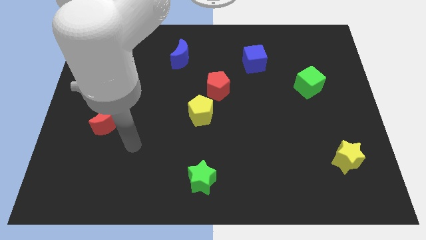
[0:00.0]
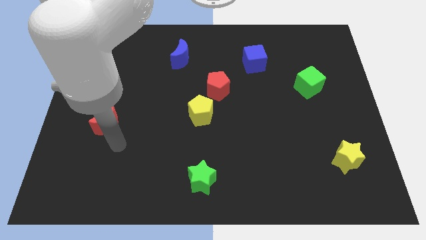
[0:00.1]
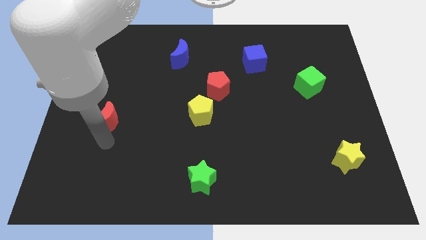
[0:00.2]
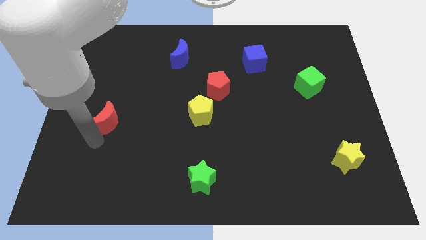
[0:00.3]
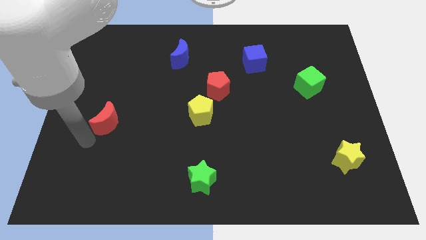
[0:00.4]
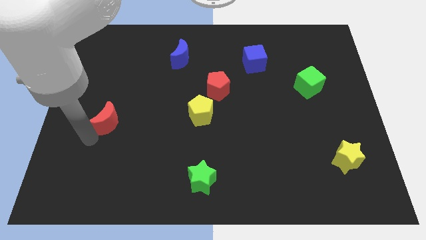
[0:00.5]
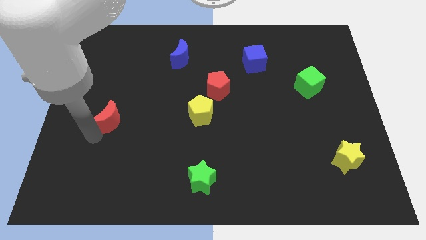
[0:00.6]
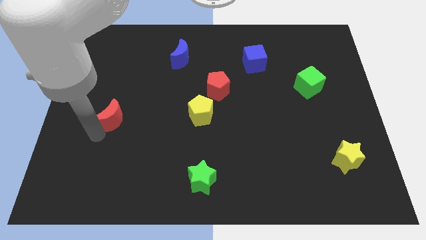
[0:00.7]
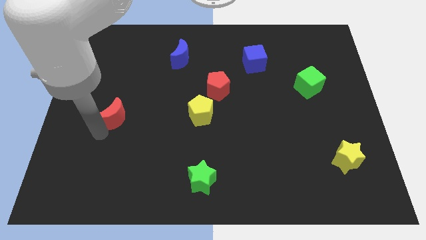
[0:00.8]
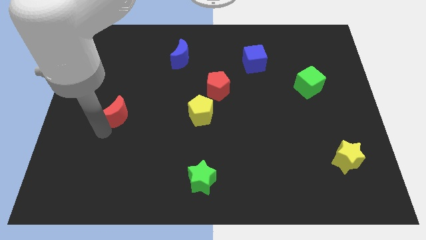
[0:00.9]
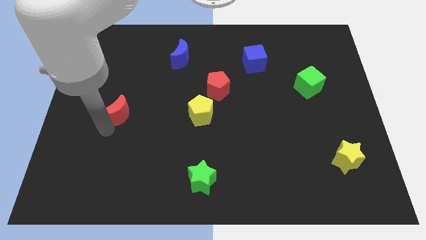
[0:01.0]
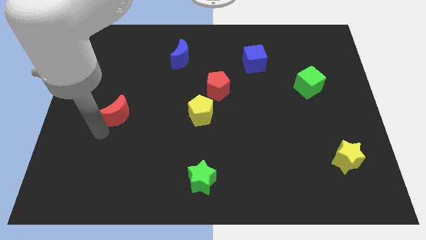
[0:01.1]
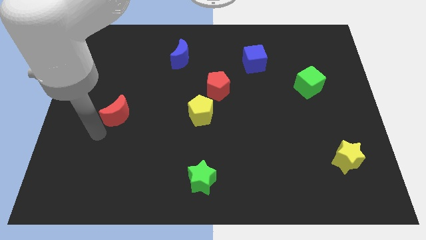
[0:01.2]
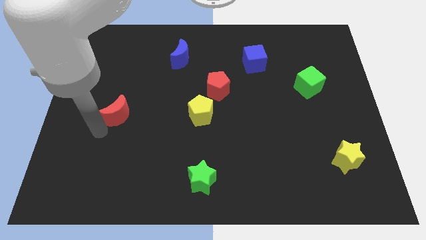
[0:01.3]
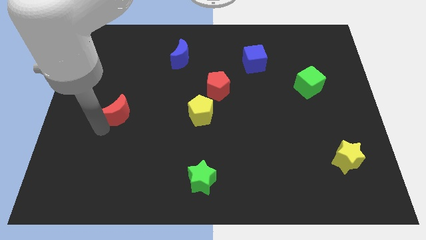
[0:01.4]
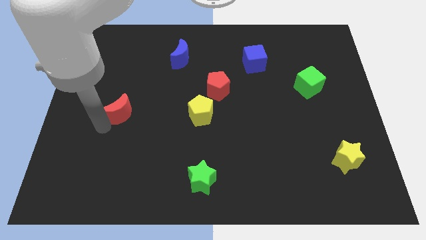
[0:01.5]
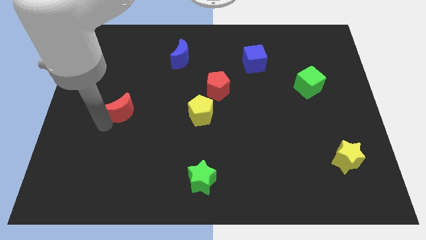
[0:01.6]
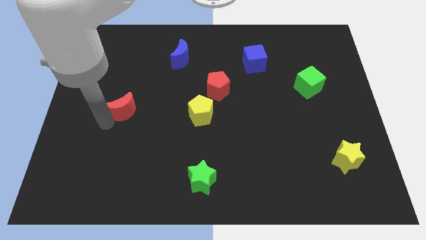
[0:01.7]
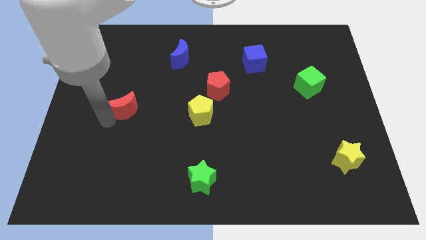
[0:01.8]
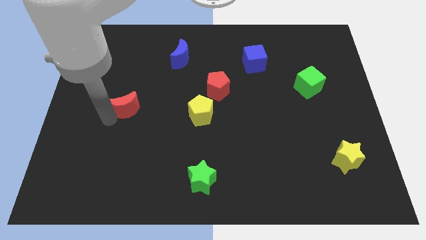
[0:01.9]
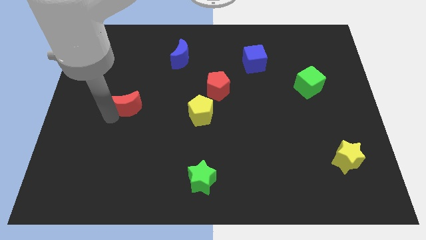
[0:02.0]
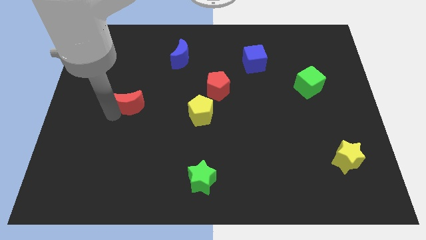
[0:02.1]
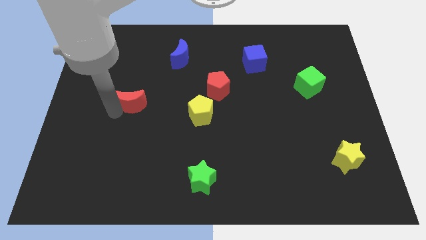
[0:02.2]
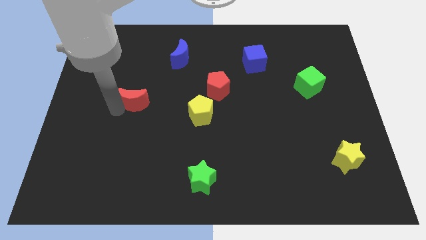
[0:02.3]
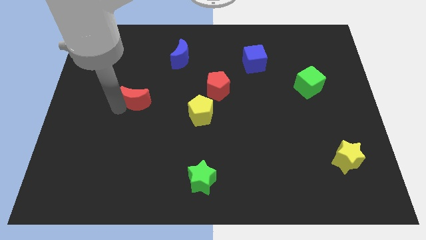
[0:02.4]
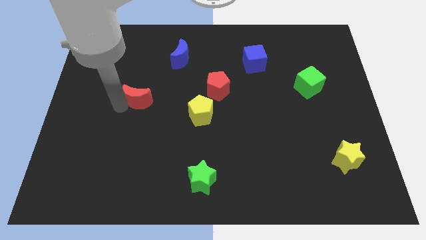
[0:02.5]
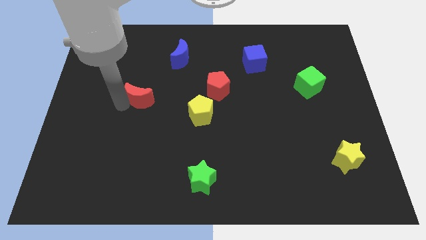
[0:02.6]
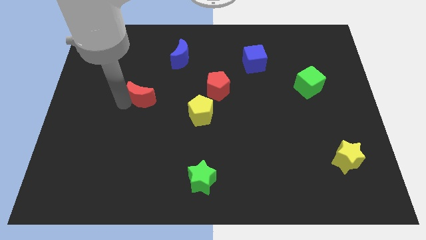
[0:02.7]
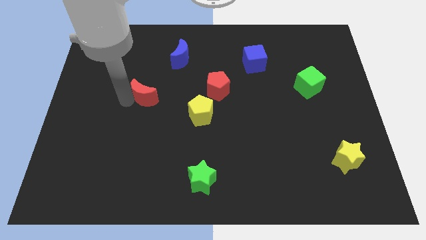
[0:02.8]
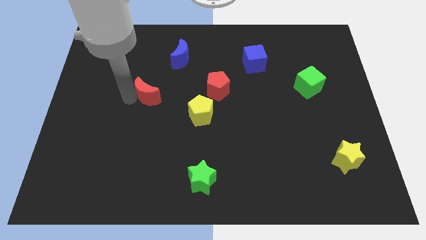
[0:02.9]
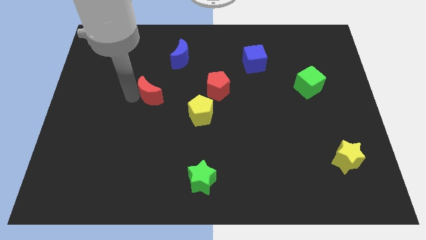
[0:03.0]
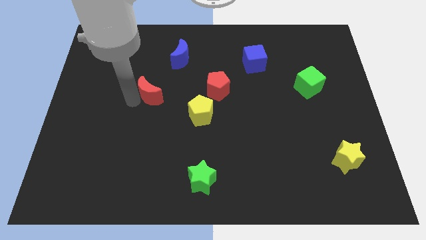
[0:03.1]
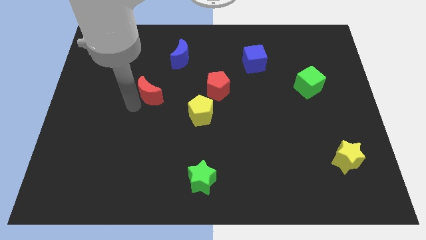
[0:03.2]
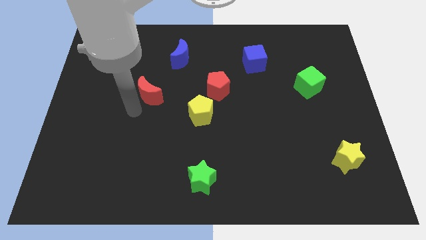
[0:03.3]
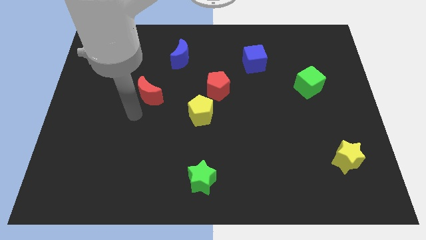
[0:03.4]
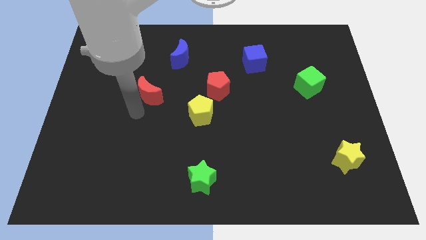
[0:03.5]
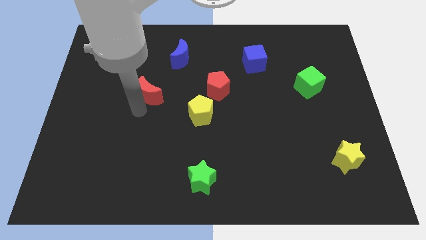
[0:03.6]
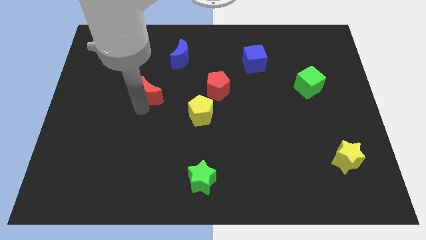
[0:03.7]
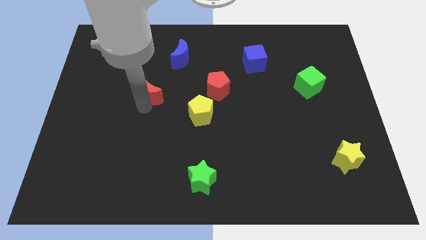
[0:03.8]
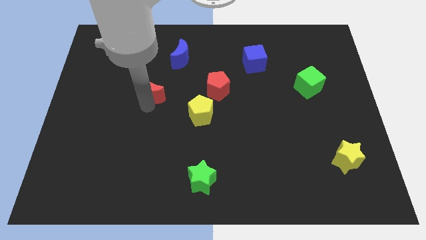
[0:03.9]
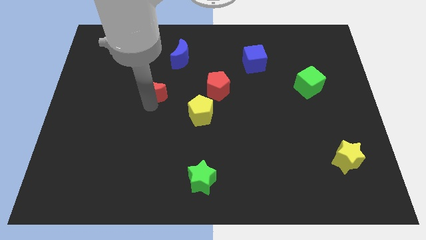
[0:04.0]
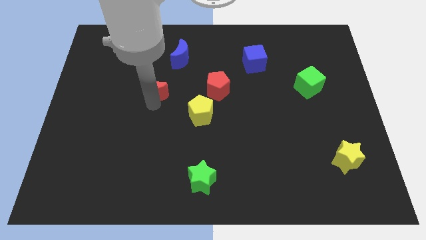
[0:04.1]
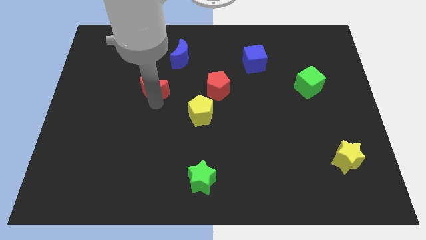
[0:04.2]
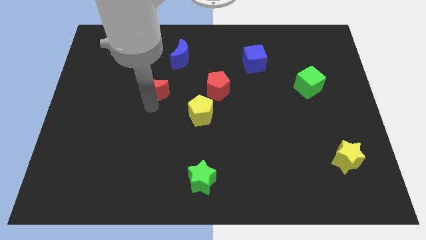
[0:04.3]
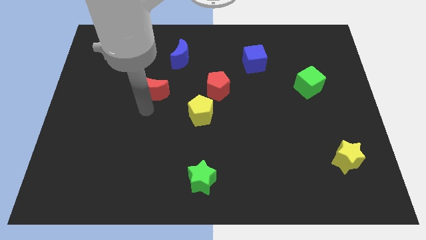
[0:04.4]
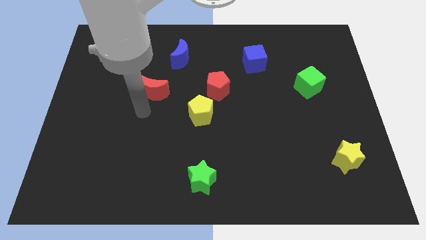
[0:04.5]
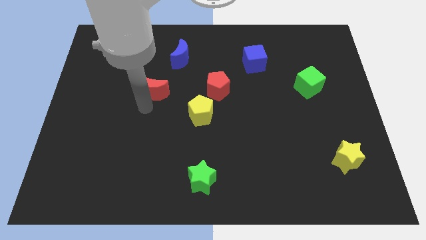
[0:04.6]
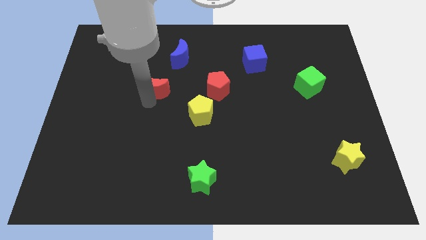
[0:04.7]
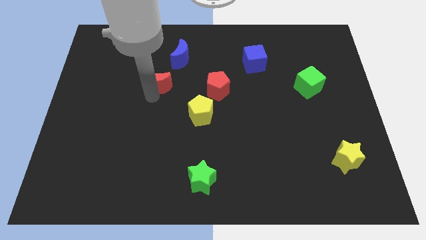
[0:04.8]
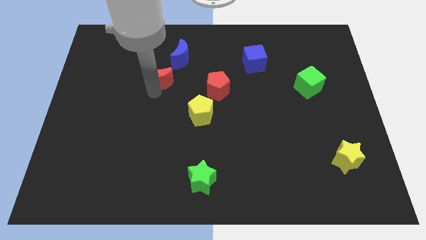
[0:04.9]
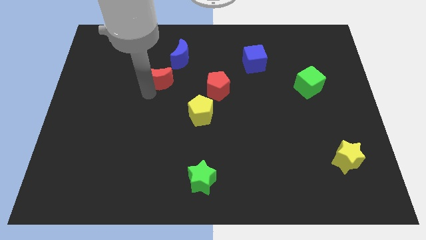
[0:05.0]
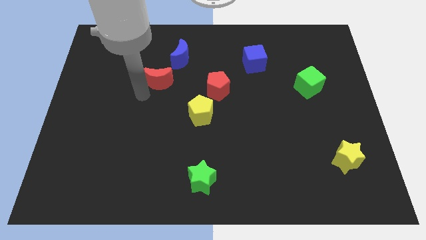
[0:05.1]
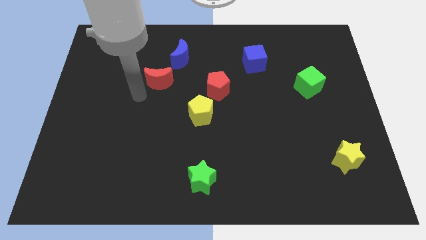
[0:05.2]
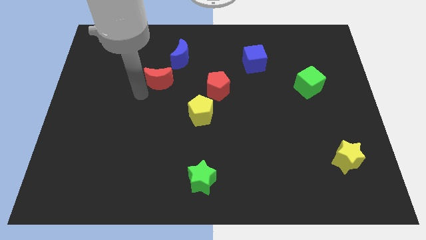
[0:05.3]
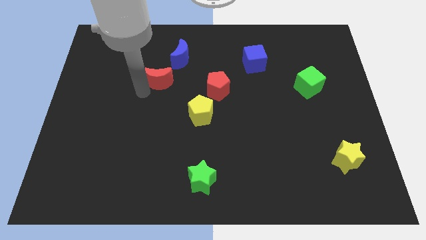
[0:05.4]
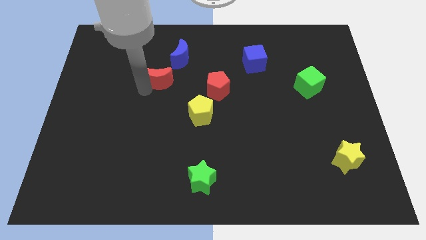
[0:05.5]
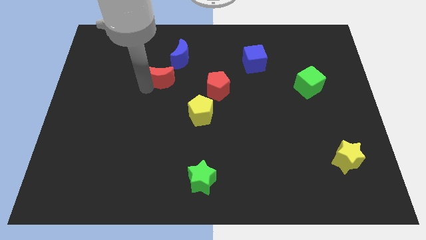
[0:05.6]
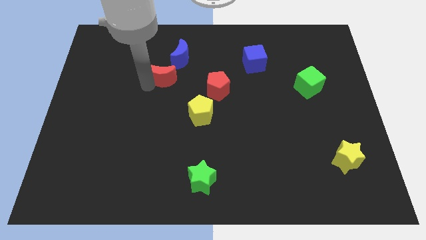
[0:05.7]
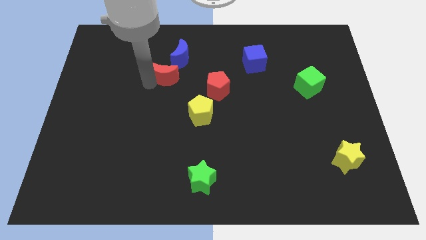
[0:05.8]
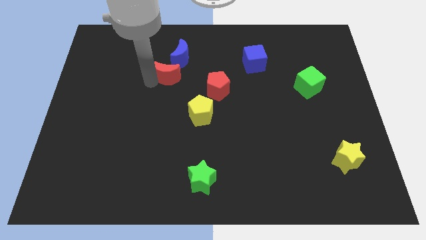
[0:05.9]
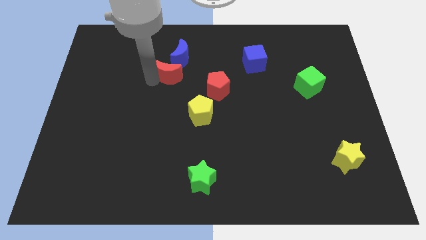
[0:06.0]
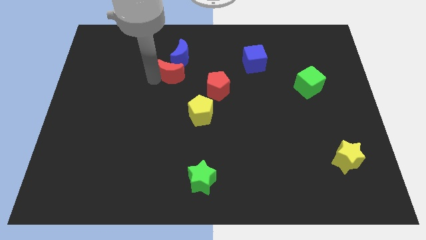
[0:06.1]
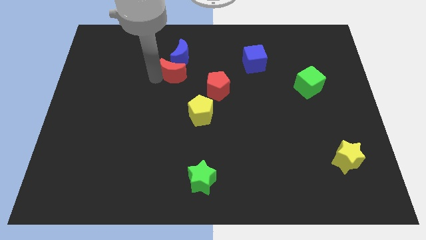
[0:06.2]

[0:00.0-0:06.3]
slide the red moon towards the blue moon

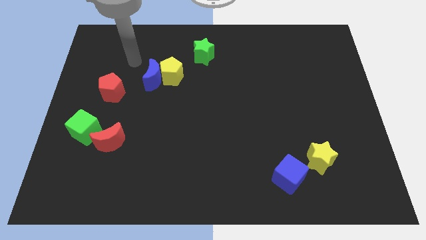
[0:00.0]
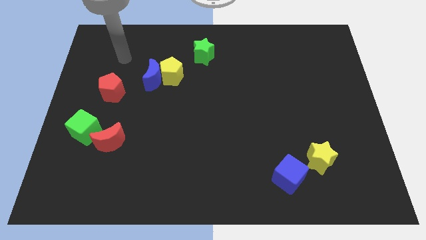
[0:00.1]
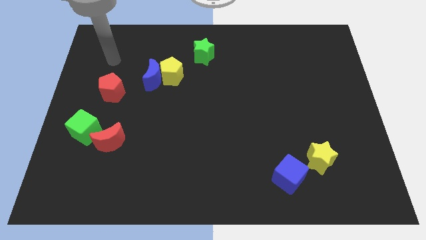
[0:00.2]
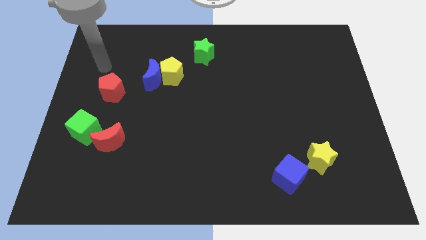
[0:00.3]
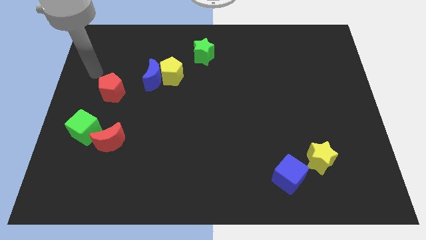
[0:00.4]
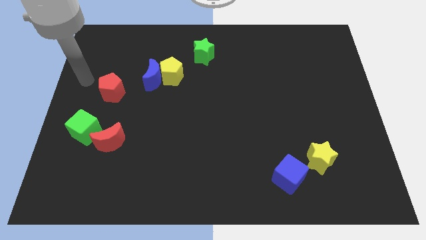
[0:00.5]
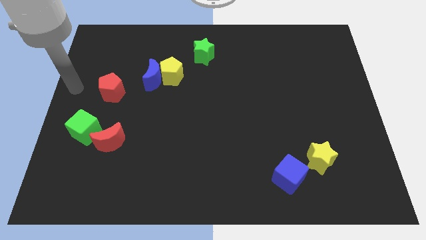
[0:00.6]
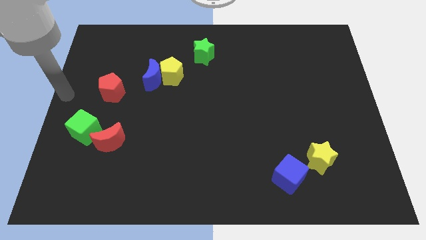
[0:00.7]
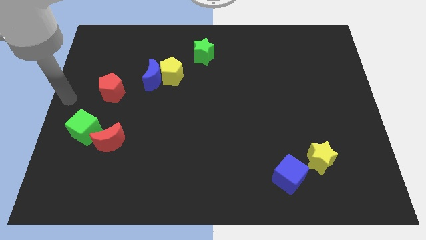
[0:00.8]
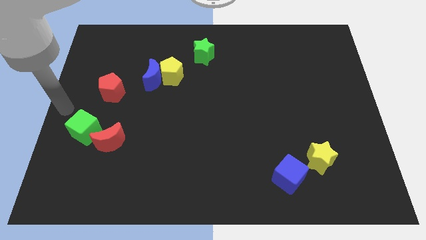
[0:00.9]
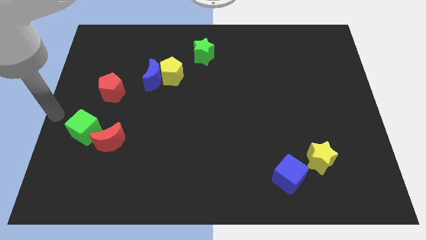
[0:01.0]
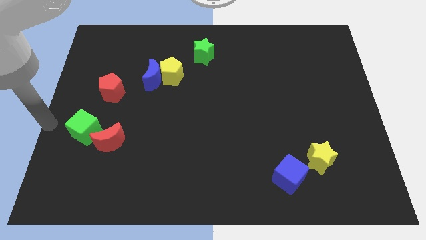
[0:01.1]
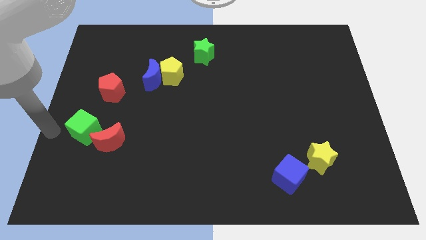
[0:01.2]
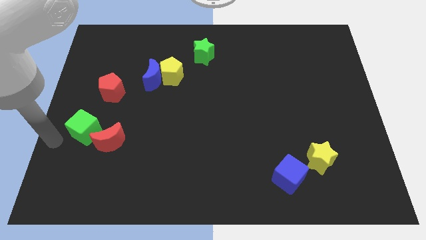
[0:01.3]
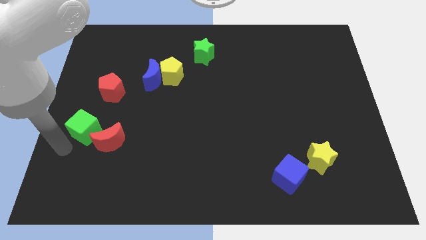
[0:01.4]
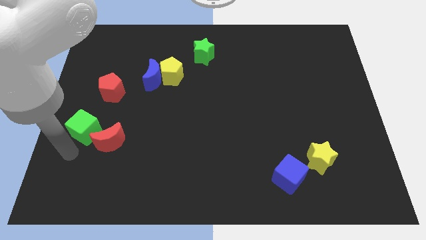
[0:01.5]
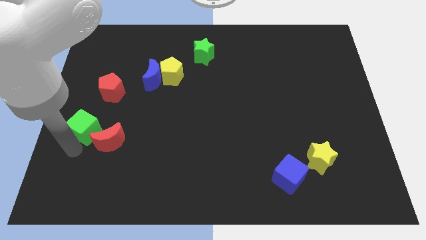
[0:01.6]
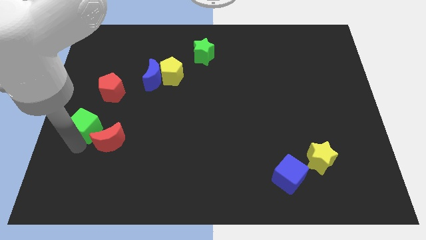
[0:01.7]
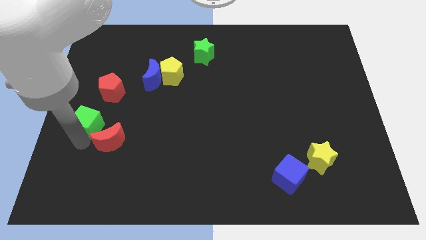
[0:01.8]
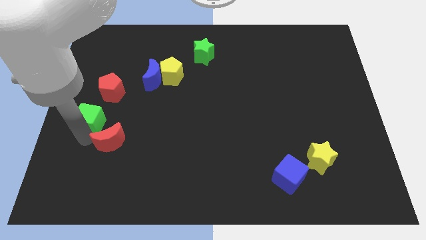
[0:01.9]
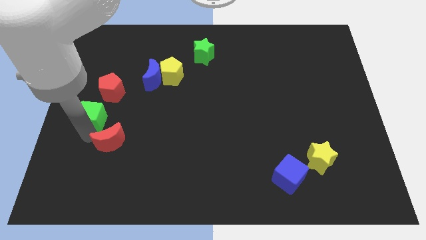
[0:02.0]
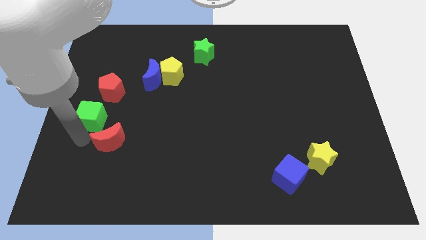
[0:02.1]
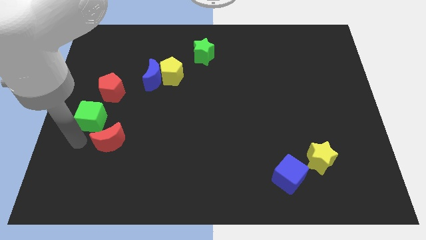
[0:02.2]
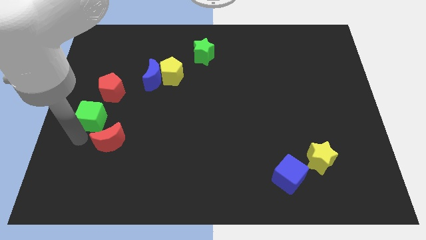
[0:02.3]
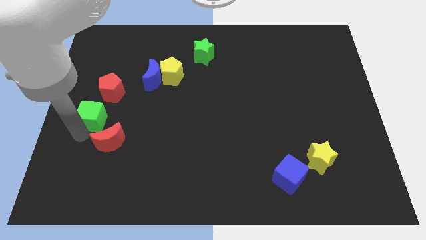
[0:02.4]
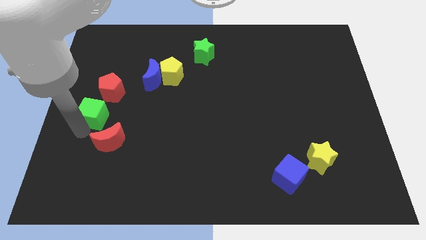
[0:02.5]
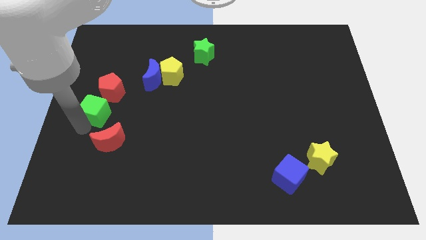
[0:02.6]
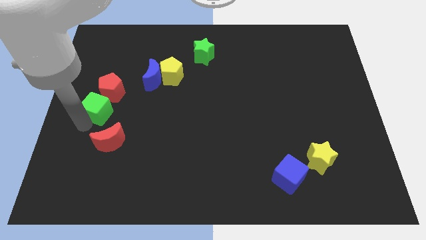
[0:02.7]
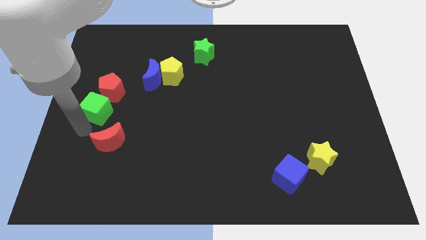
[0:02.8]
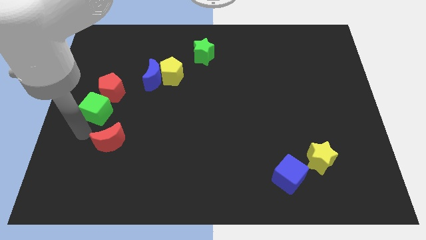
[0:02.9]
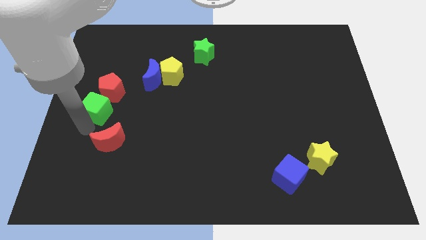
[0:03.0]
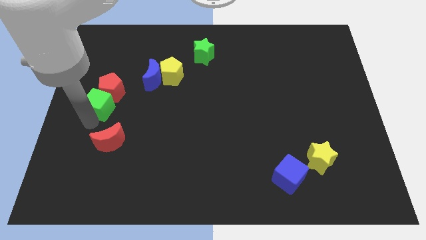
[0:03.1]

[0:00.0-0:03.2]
move the green cube close to the red pentagon
